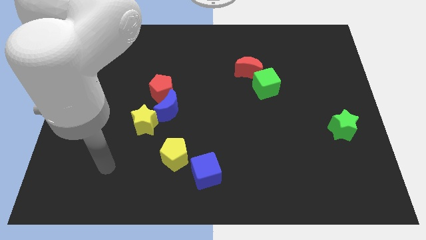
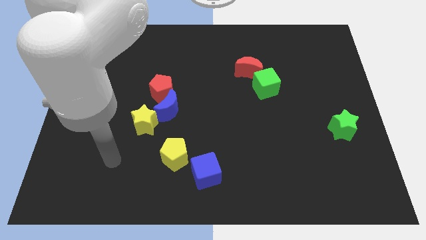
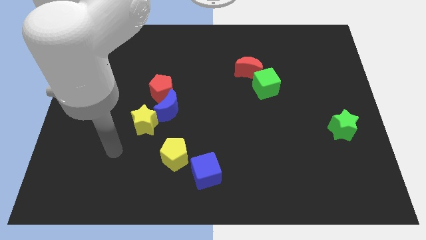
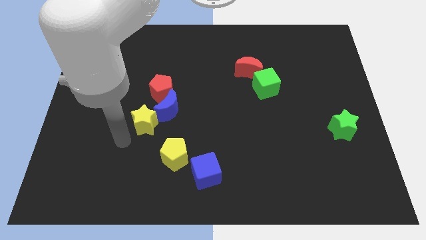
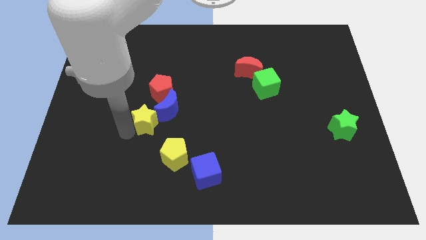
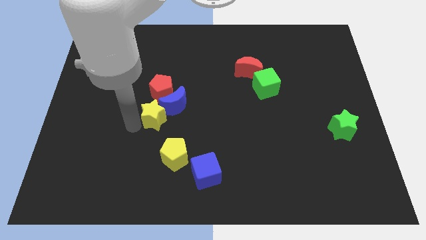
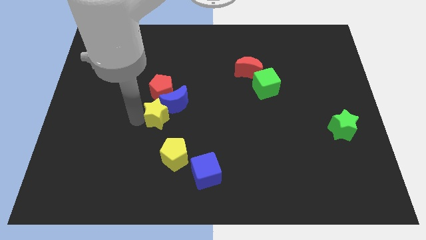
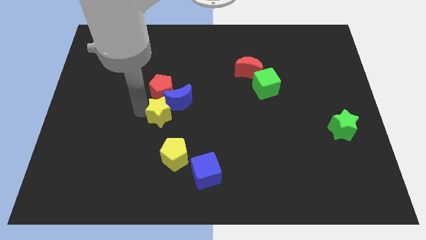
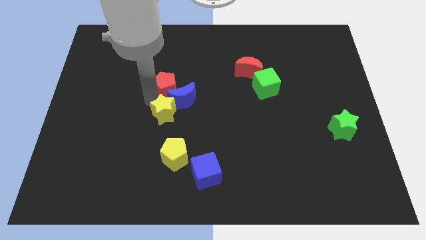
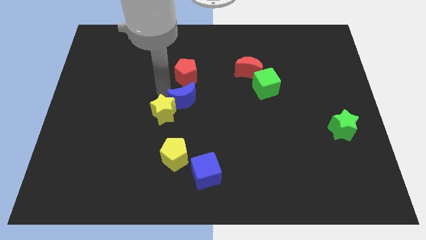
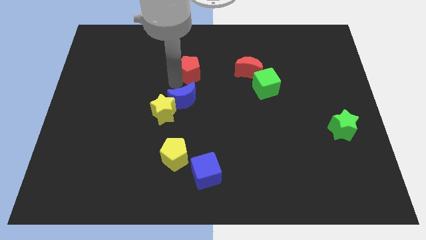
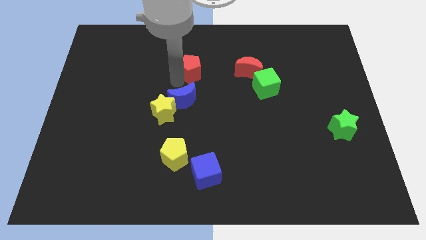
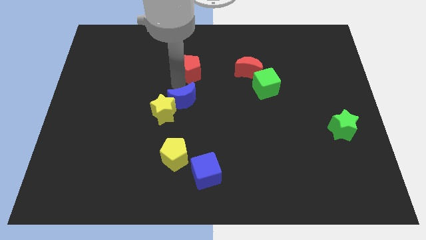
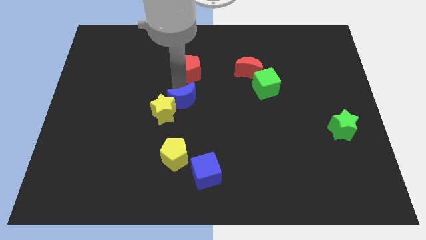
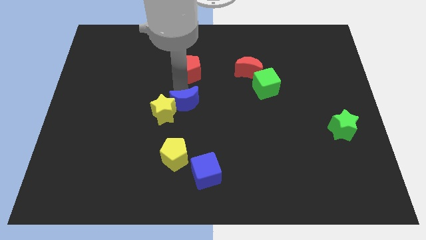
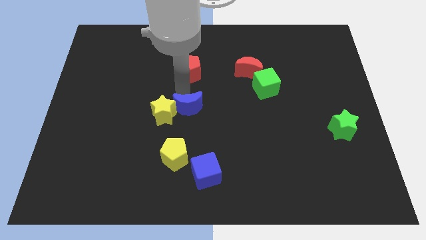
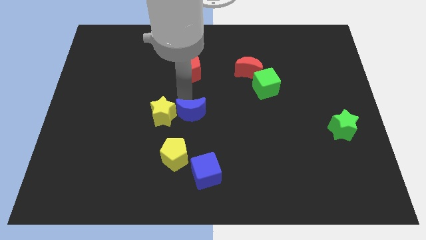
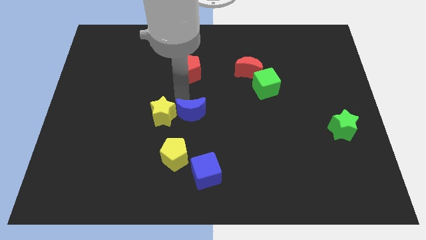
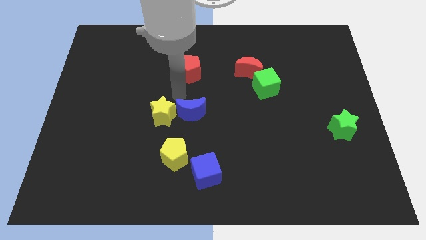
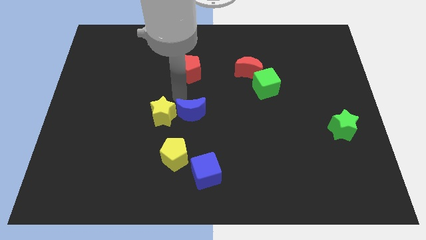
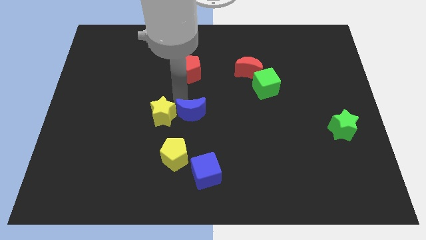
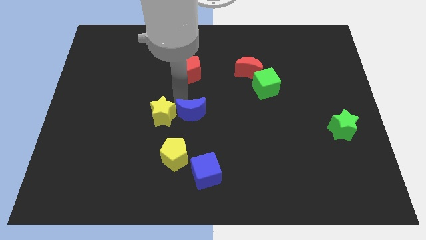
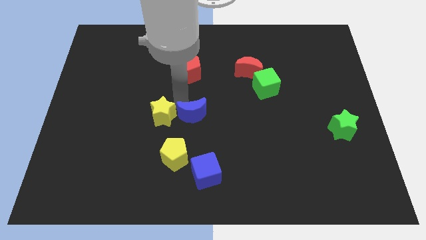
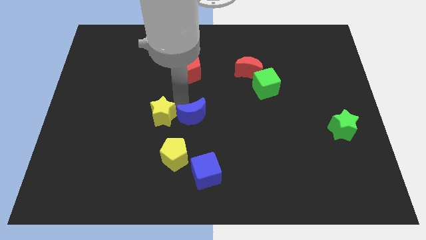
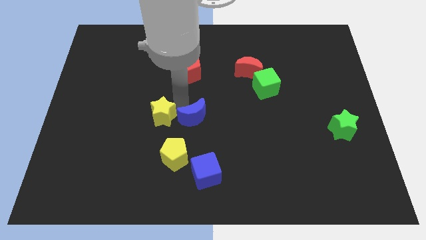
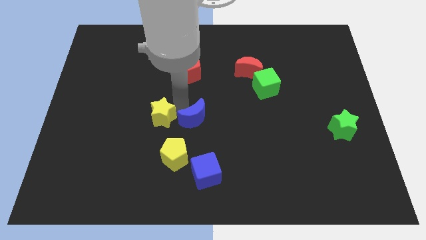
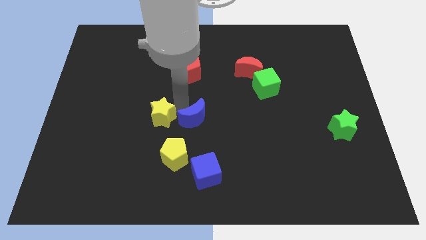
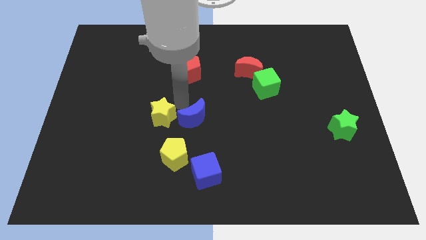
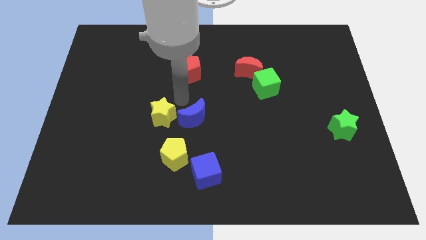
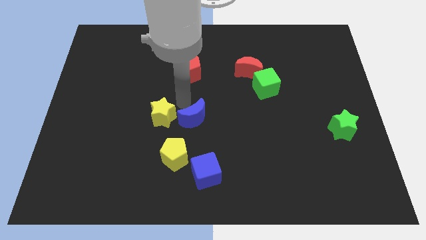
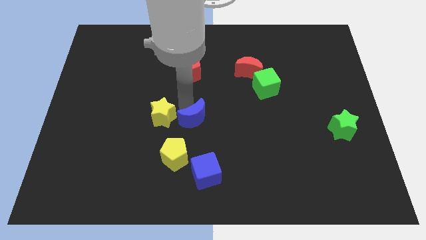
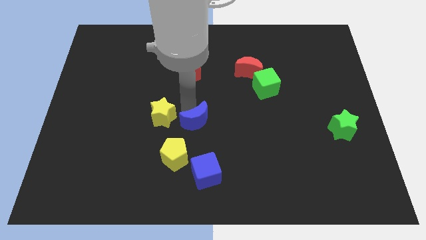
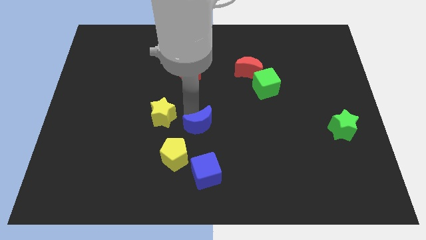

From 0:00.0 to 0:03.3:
separate the blue moon from the red pentagon and yellow star

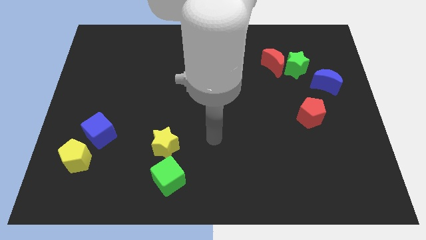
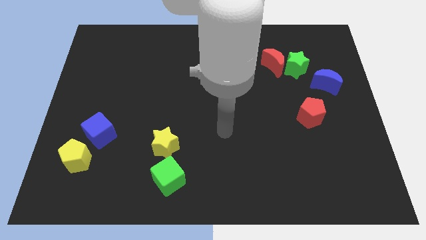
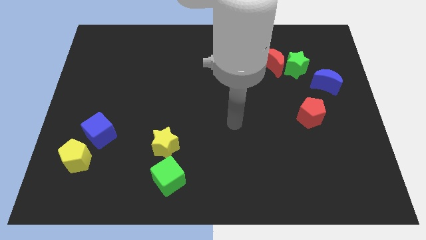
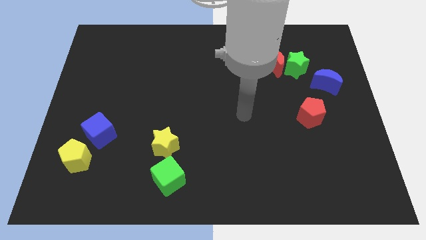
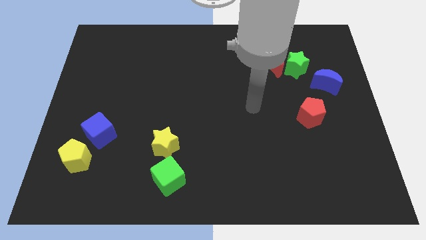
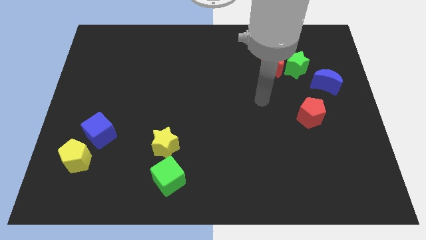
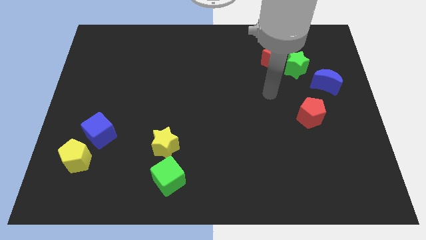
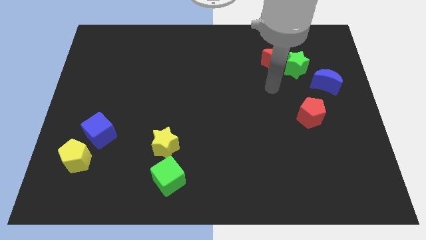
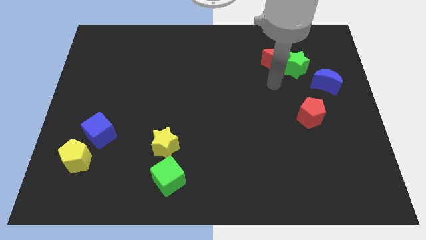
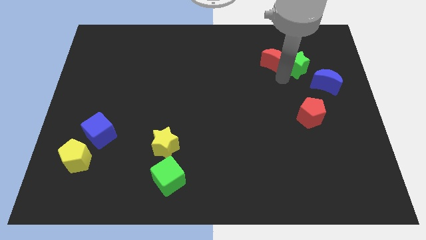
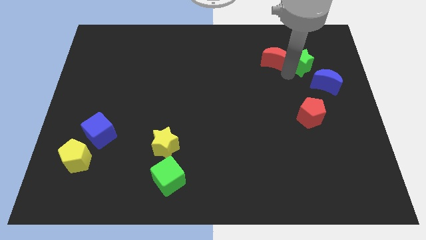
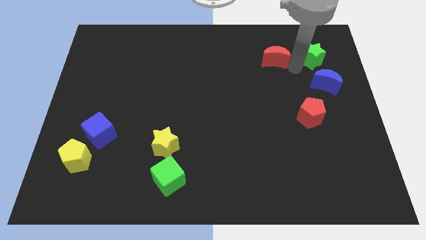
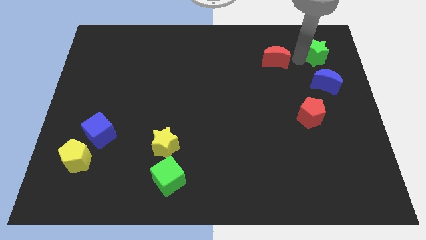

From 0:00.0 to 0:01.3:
move the red moon away from the green star

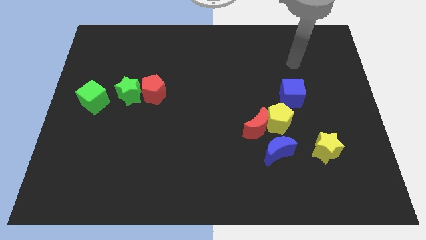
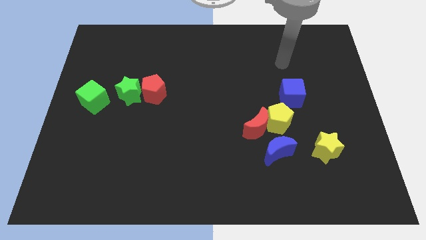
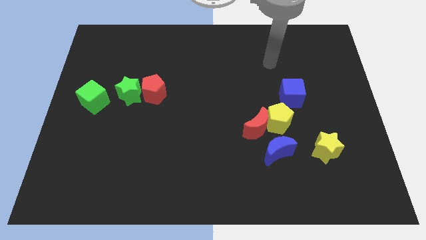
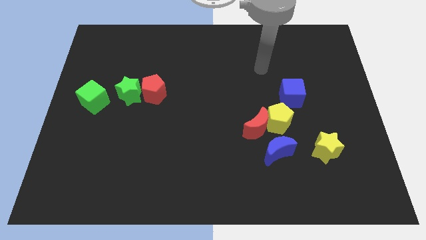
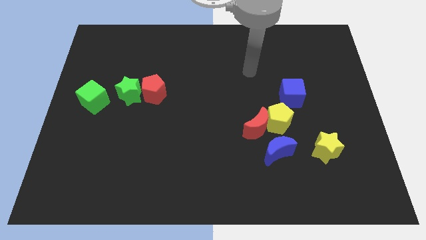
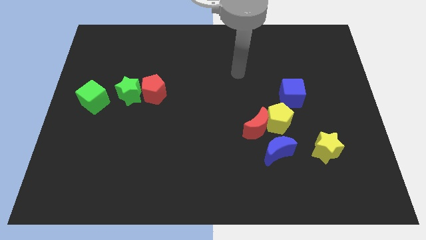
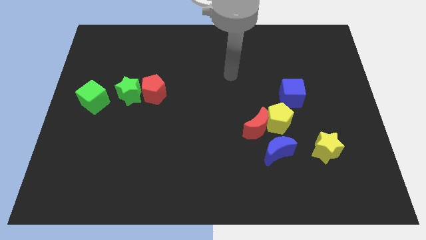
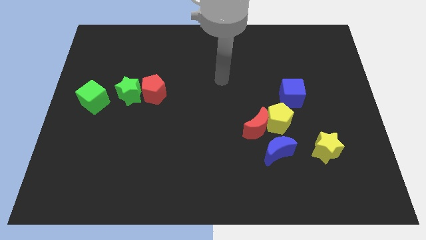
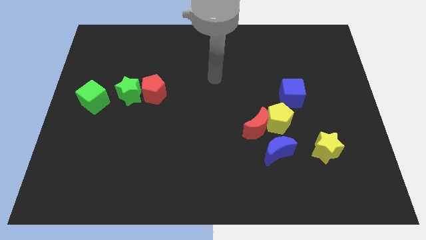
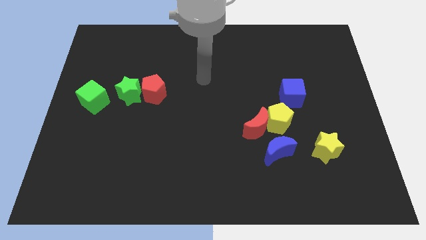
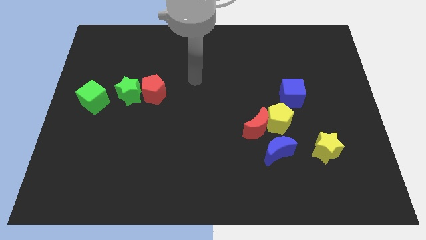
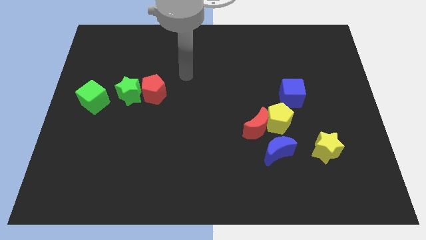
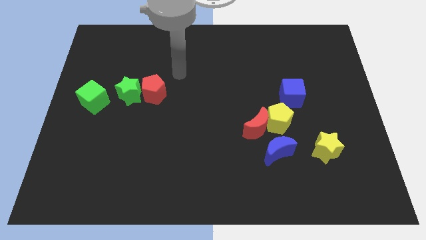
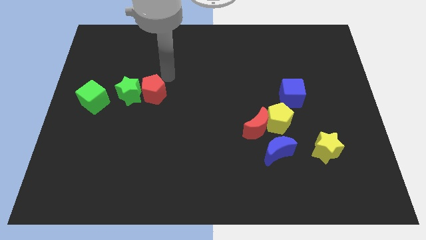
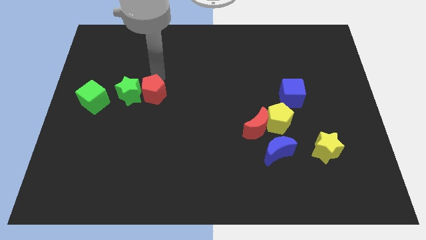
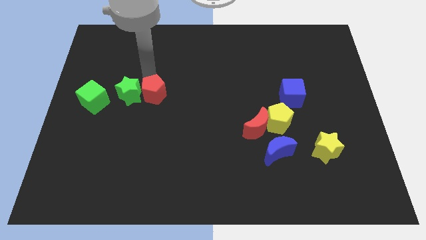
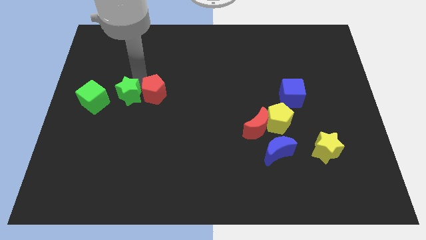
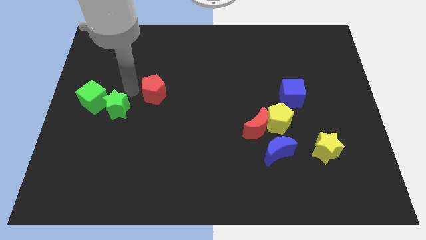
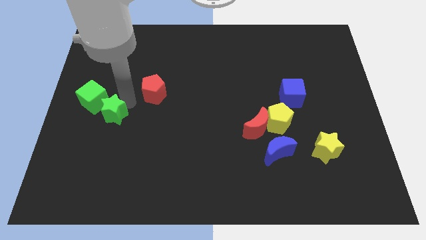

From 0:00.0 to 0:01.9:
move the red pentagon away from the green star

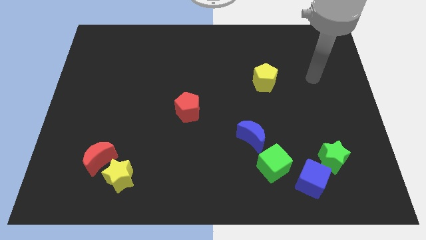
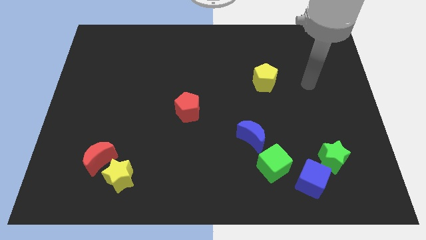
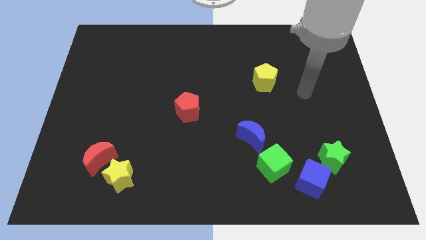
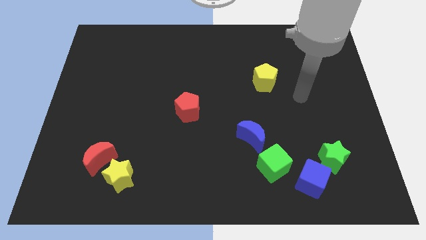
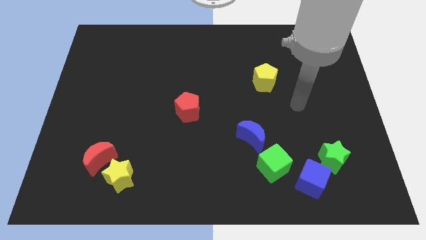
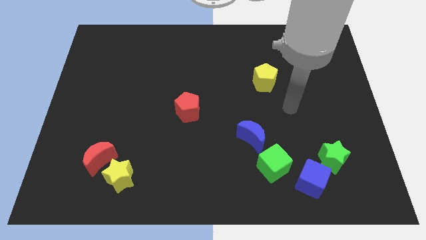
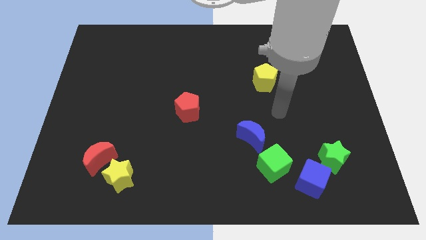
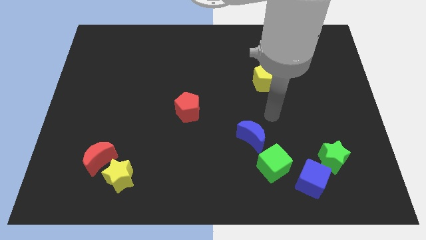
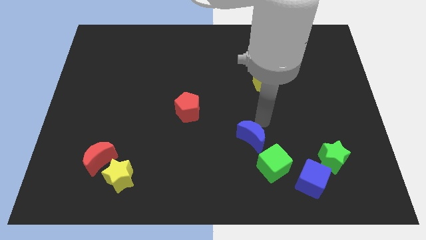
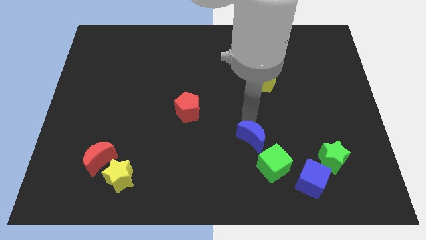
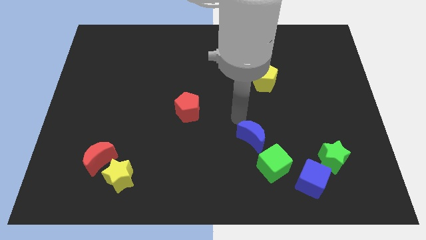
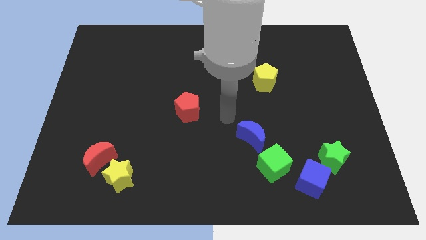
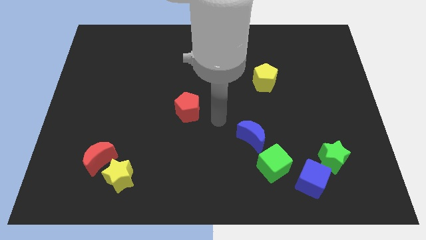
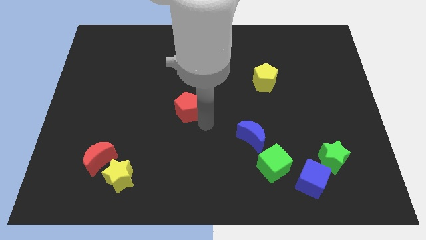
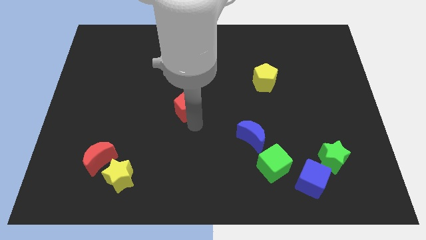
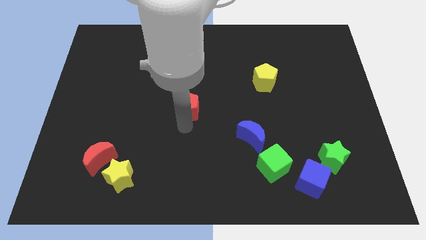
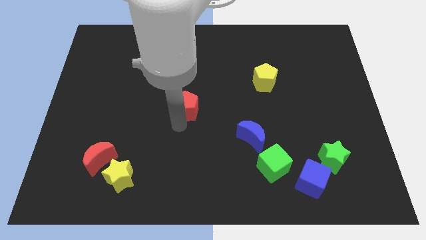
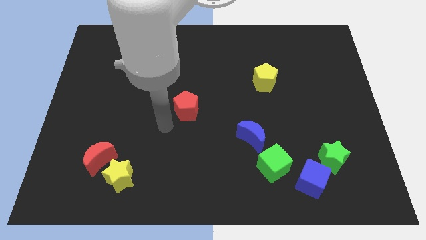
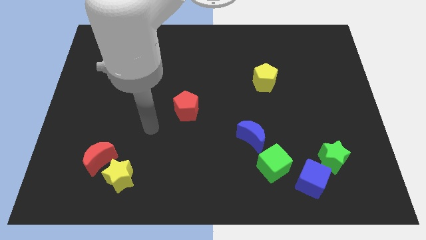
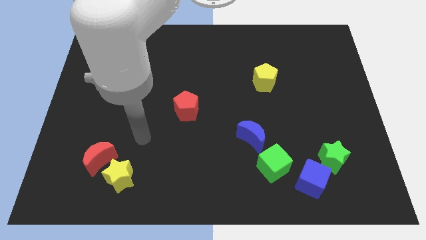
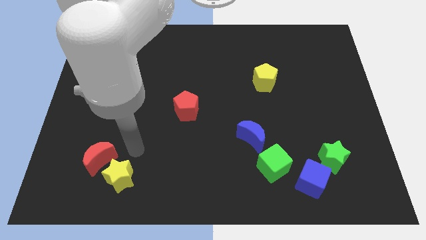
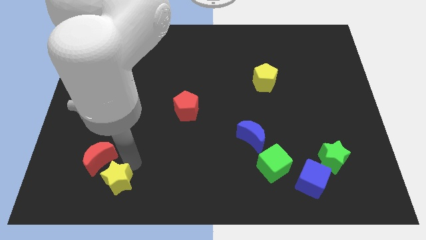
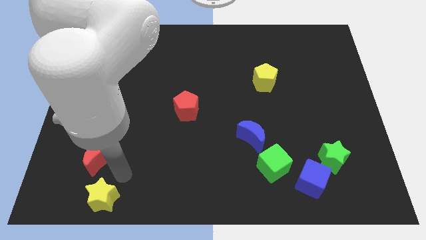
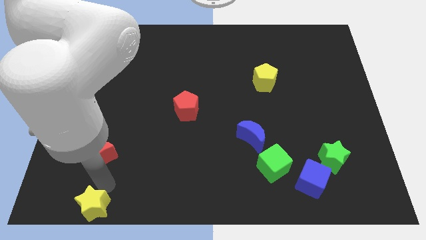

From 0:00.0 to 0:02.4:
separate the red moon from the yellow star

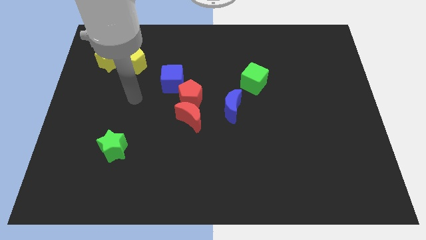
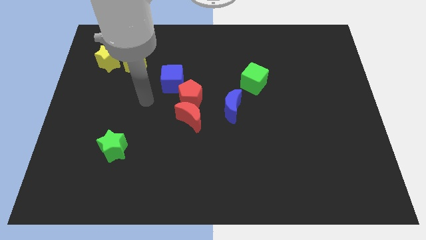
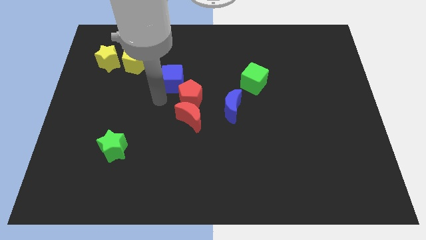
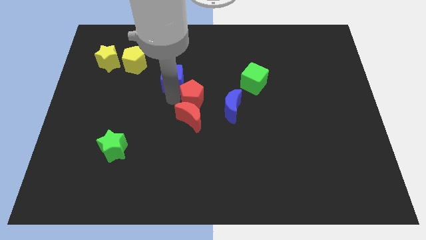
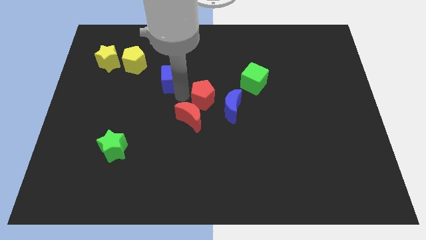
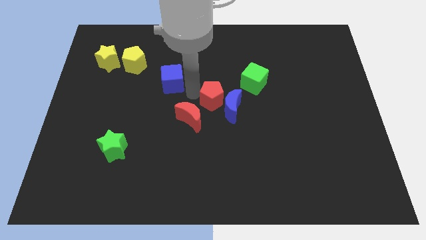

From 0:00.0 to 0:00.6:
pull the blue cube apart from the red pentagon
